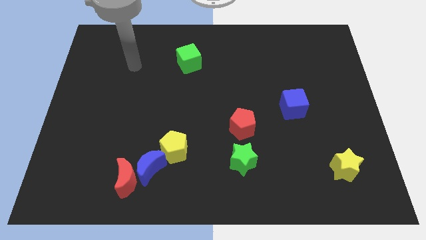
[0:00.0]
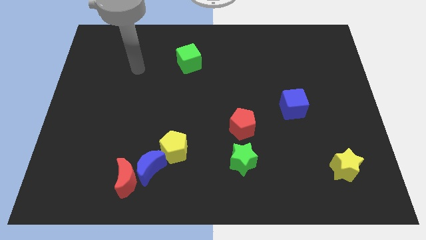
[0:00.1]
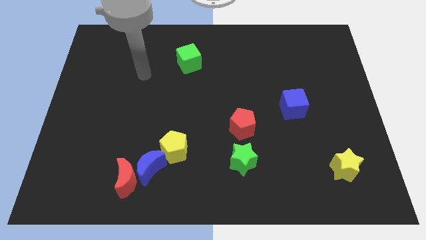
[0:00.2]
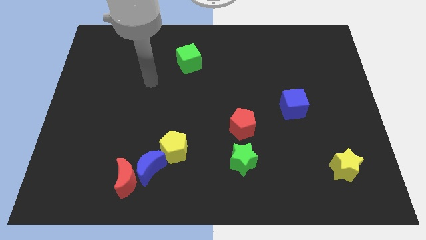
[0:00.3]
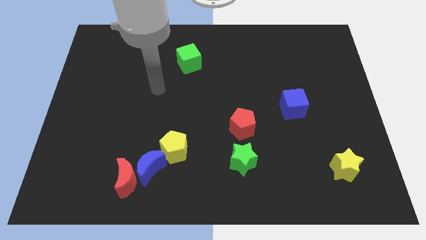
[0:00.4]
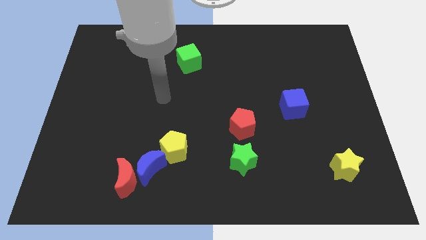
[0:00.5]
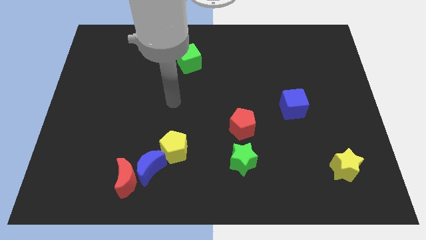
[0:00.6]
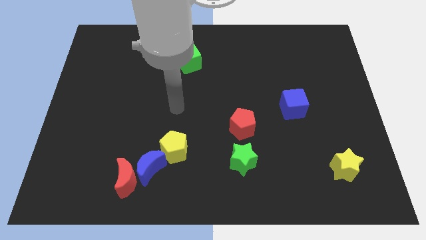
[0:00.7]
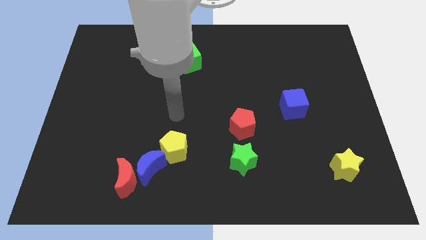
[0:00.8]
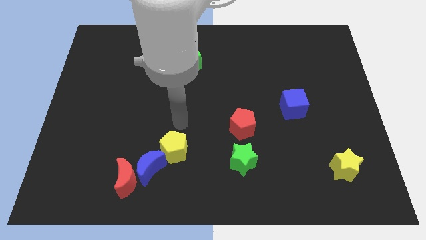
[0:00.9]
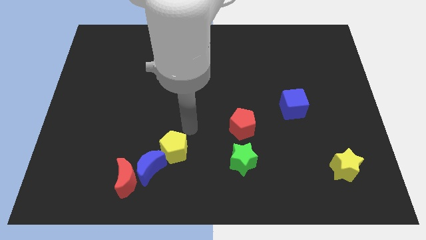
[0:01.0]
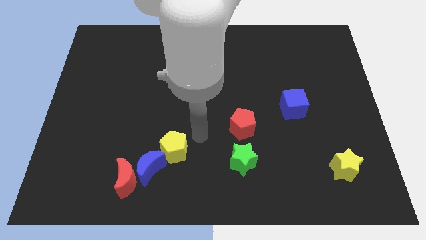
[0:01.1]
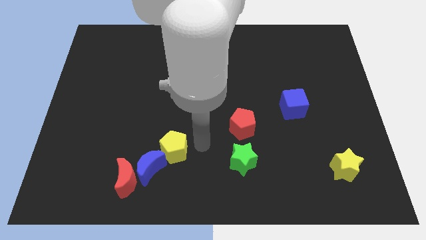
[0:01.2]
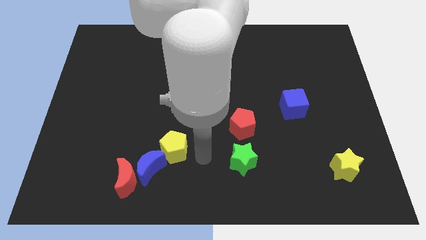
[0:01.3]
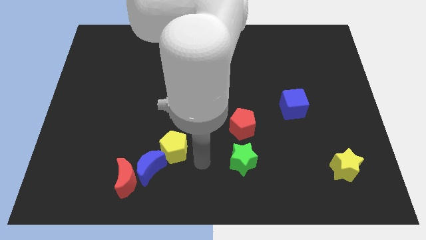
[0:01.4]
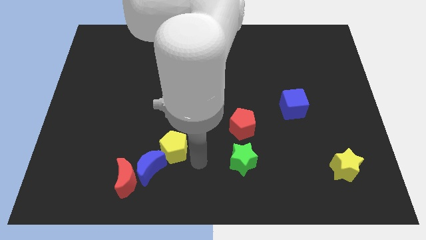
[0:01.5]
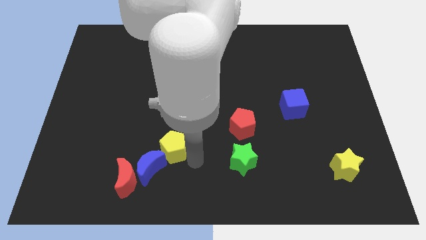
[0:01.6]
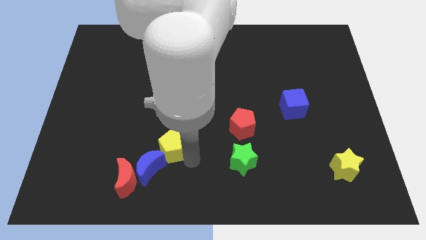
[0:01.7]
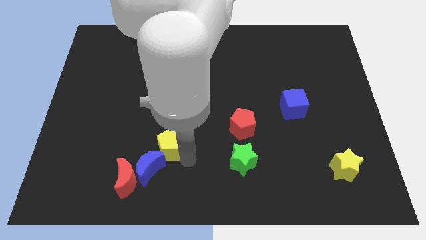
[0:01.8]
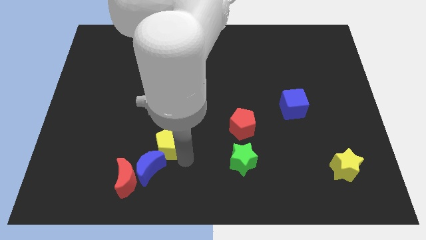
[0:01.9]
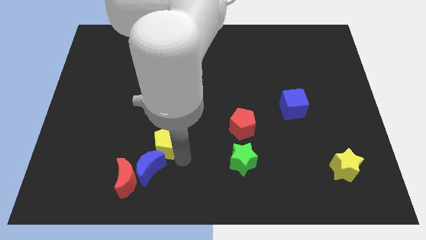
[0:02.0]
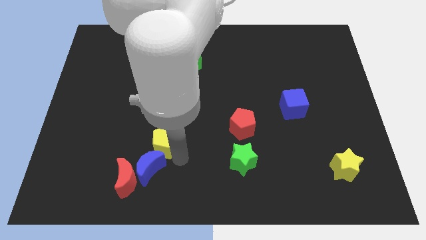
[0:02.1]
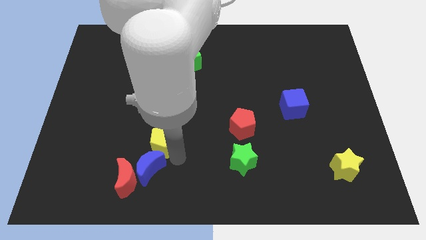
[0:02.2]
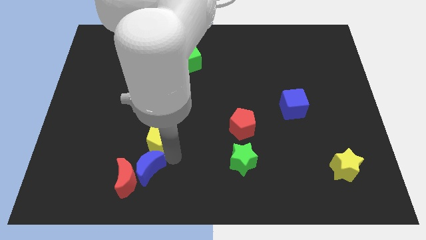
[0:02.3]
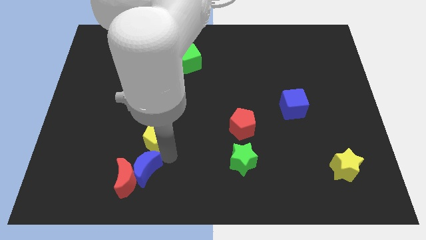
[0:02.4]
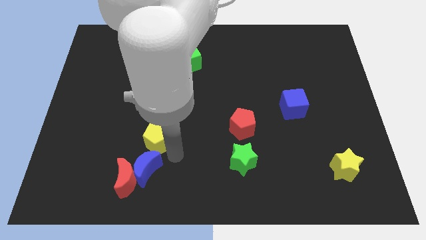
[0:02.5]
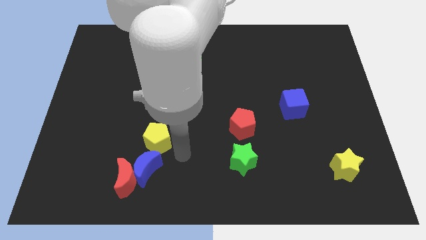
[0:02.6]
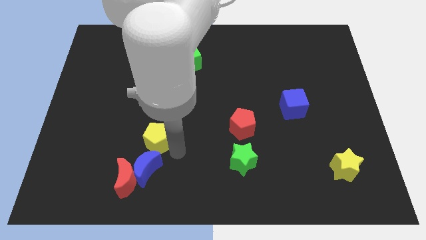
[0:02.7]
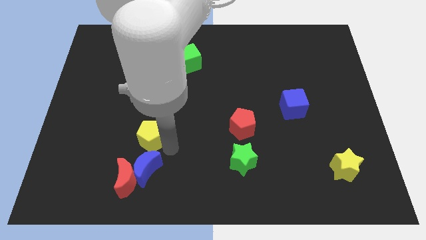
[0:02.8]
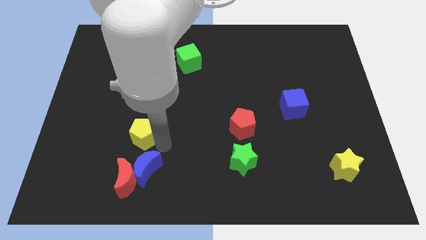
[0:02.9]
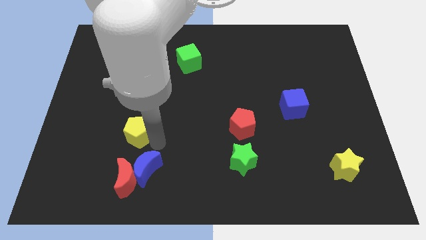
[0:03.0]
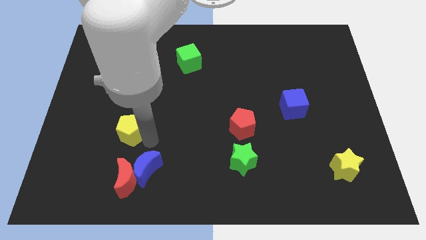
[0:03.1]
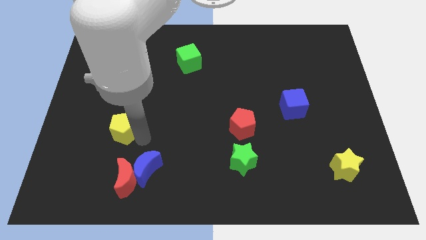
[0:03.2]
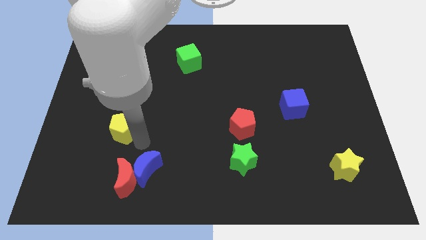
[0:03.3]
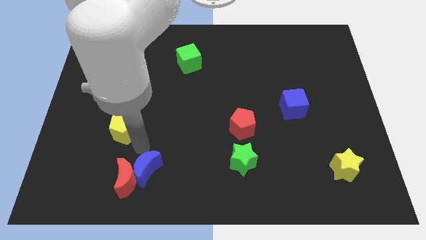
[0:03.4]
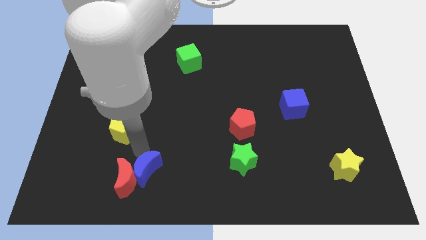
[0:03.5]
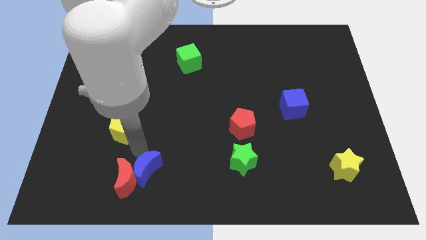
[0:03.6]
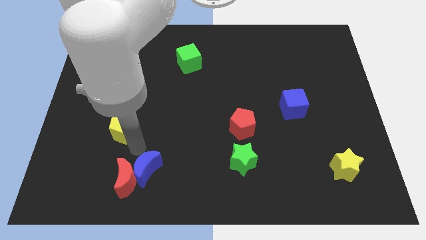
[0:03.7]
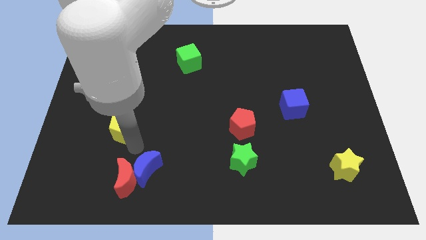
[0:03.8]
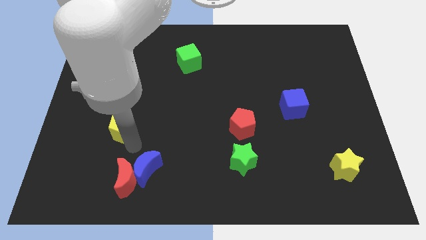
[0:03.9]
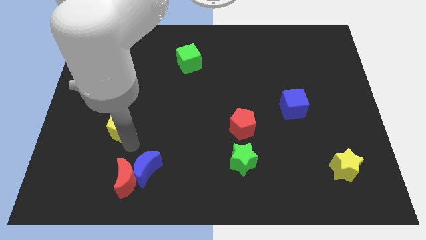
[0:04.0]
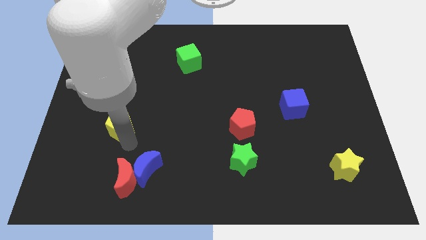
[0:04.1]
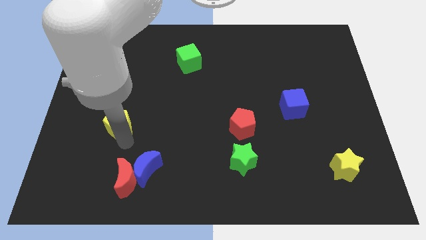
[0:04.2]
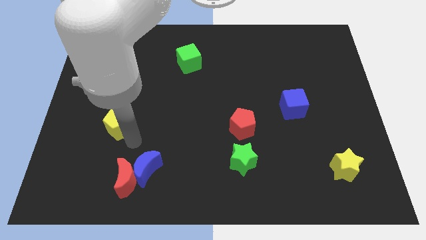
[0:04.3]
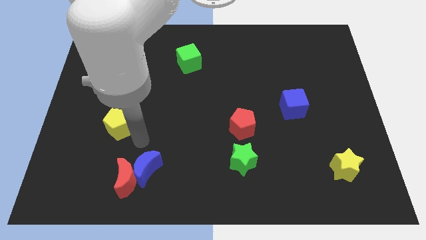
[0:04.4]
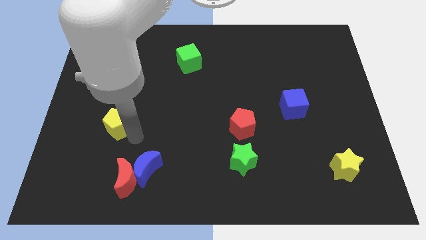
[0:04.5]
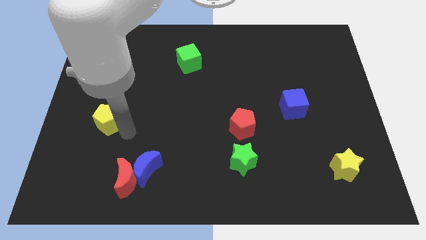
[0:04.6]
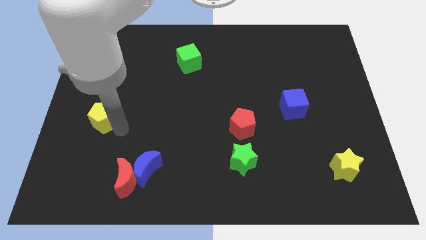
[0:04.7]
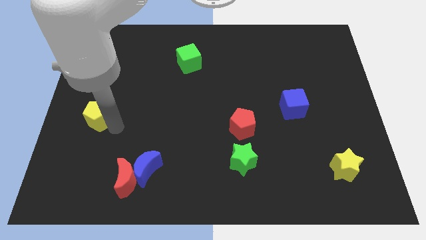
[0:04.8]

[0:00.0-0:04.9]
slide the yellow pentagon to the left side of the board

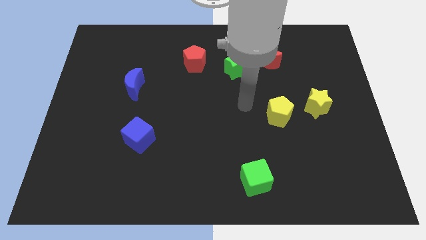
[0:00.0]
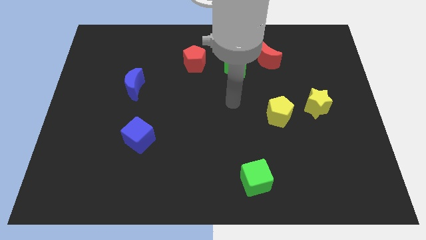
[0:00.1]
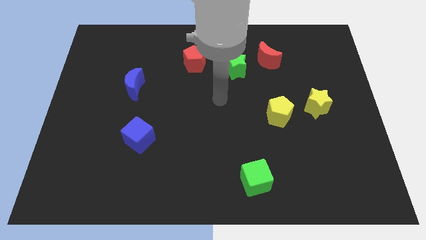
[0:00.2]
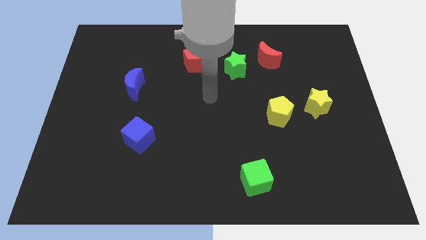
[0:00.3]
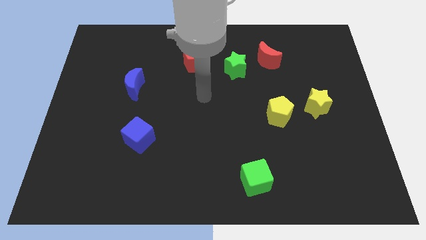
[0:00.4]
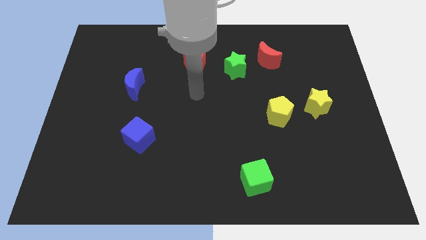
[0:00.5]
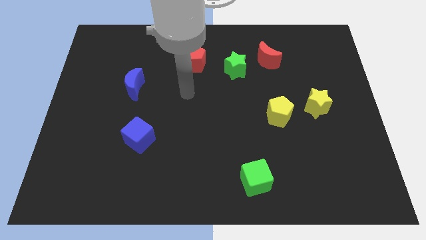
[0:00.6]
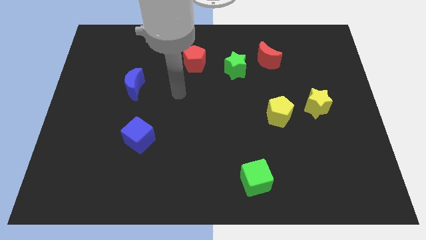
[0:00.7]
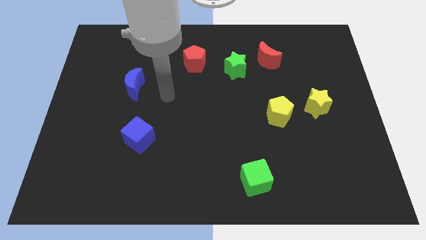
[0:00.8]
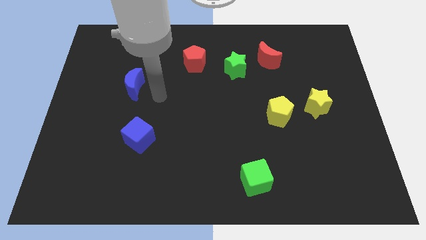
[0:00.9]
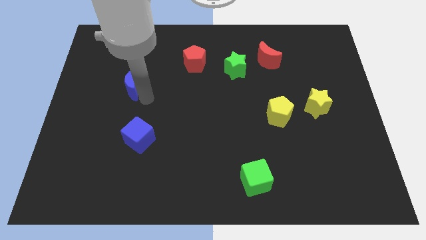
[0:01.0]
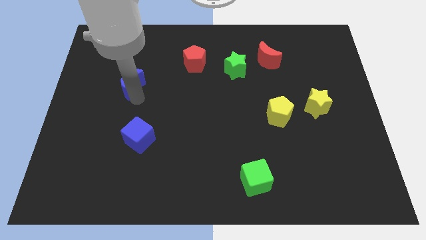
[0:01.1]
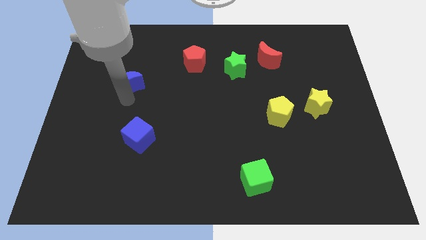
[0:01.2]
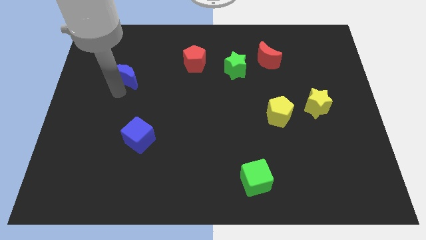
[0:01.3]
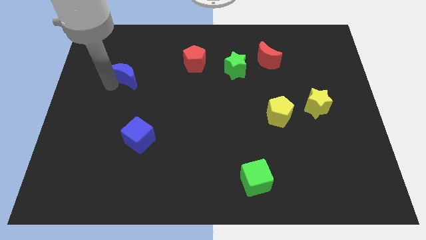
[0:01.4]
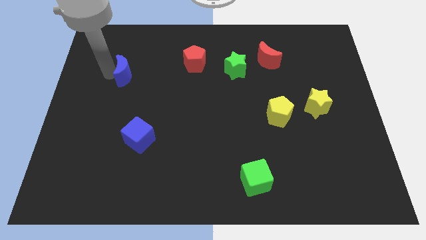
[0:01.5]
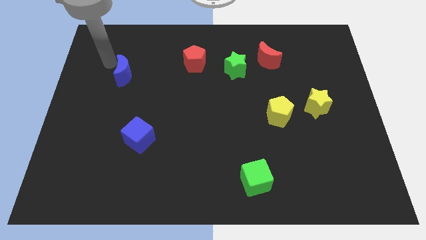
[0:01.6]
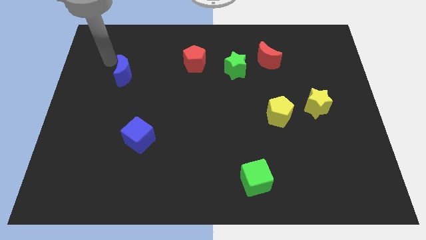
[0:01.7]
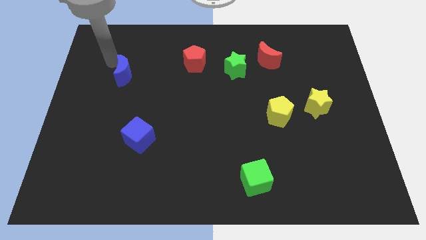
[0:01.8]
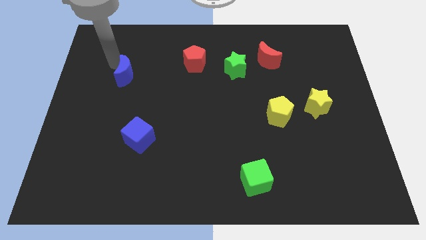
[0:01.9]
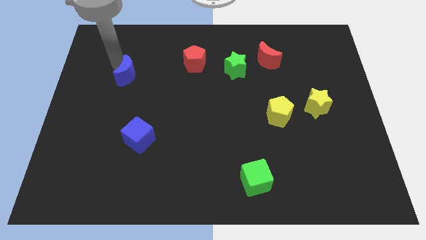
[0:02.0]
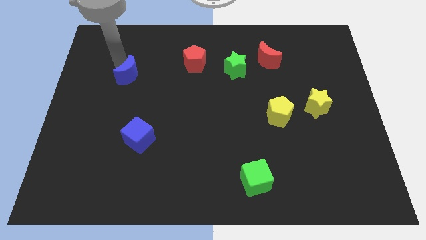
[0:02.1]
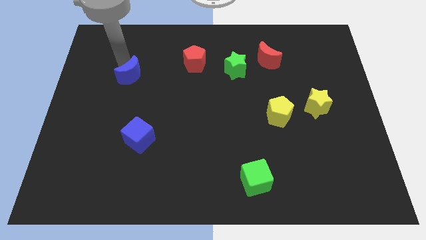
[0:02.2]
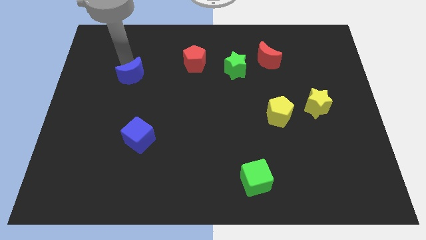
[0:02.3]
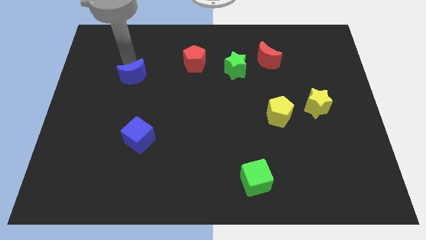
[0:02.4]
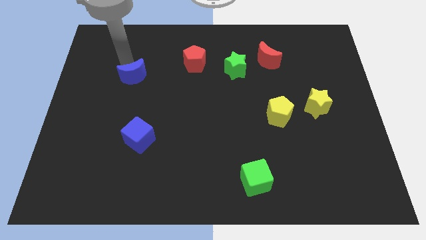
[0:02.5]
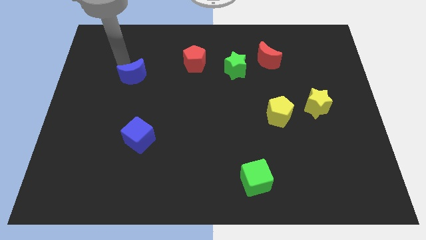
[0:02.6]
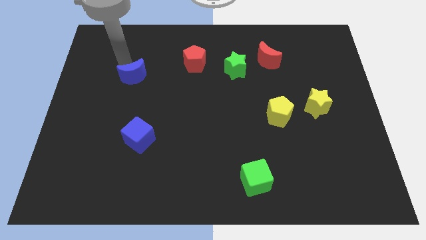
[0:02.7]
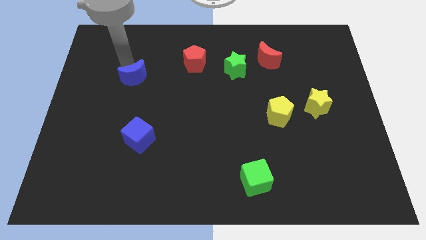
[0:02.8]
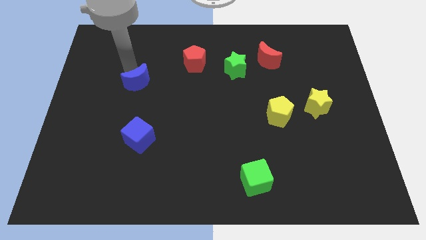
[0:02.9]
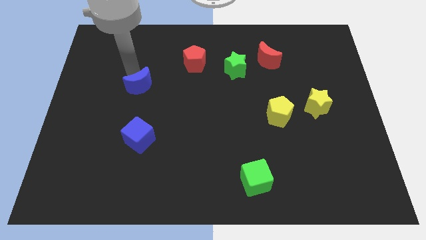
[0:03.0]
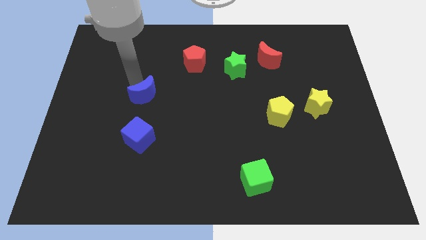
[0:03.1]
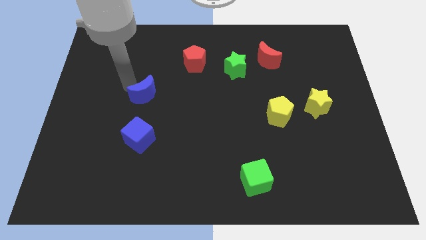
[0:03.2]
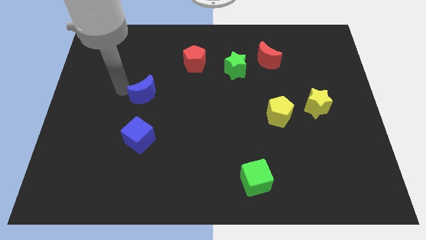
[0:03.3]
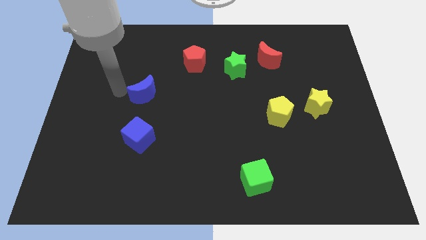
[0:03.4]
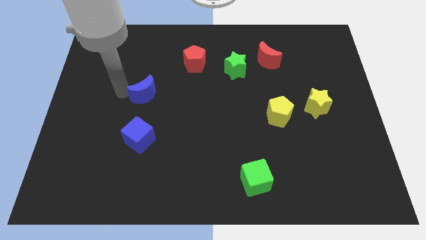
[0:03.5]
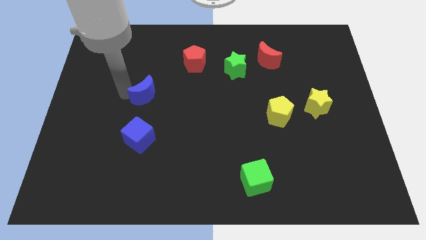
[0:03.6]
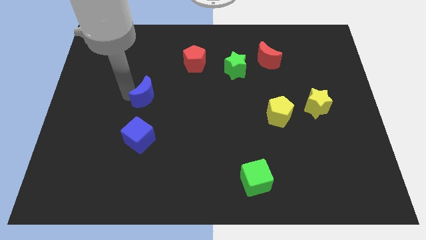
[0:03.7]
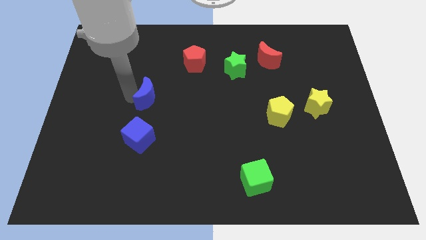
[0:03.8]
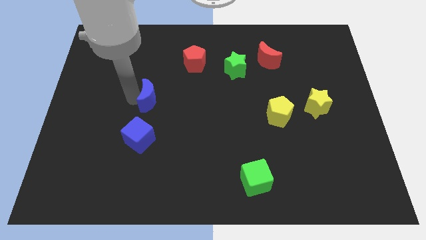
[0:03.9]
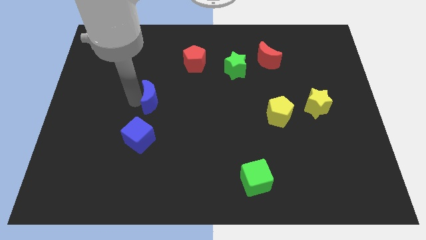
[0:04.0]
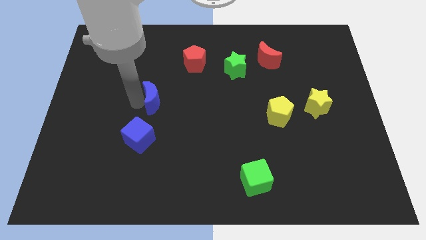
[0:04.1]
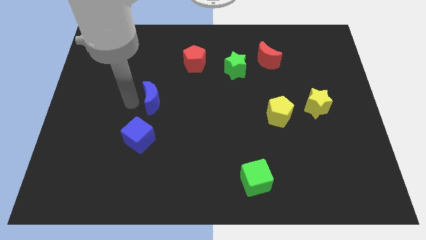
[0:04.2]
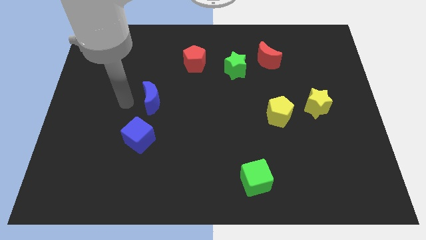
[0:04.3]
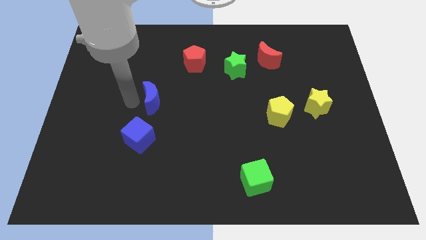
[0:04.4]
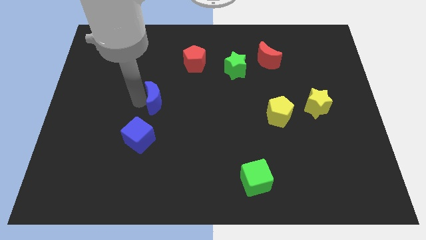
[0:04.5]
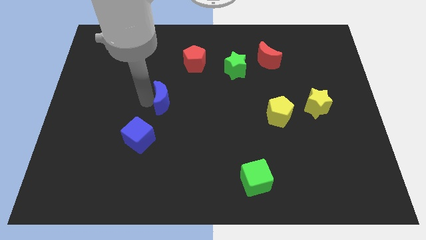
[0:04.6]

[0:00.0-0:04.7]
push the blue moon to the center of the board
